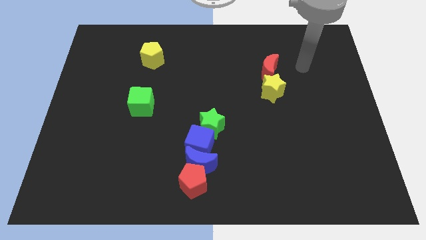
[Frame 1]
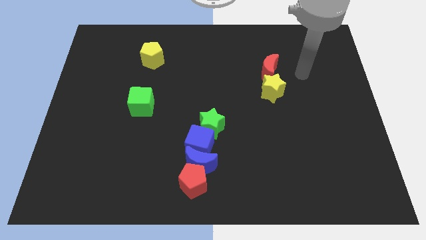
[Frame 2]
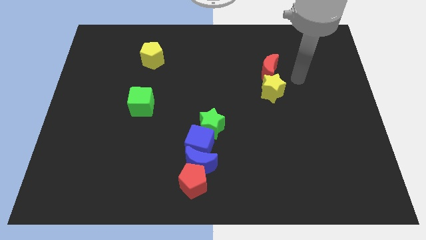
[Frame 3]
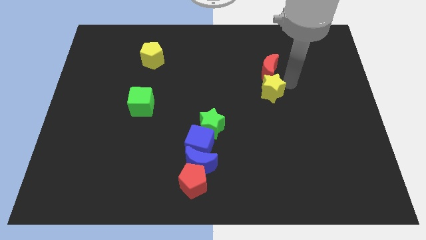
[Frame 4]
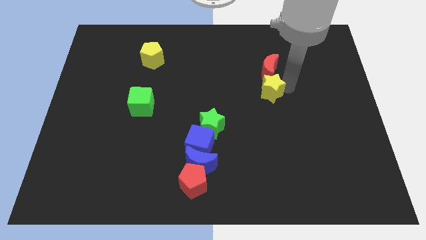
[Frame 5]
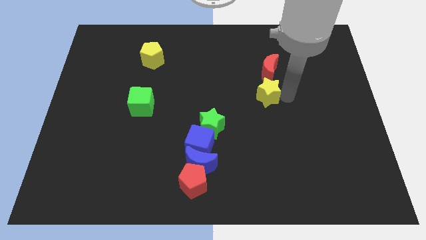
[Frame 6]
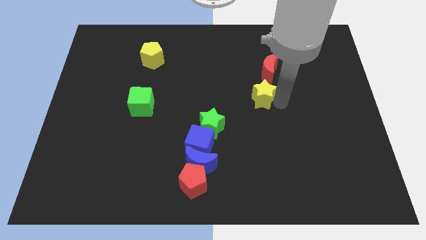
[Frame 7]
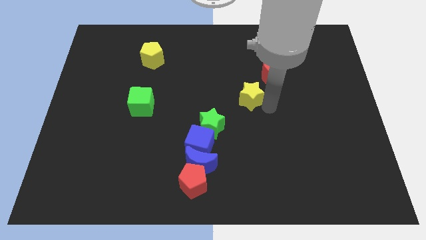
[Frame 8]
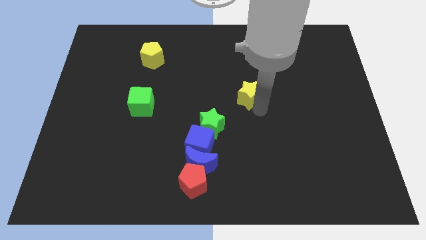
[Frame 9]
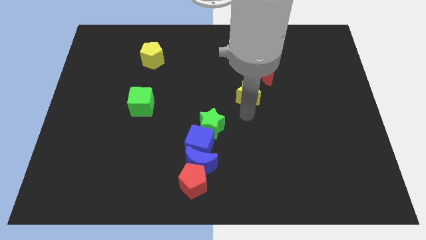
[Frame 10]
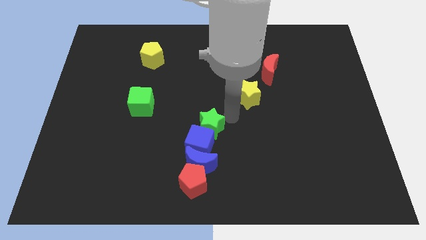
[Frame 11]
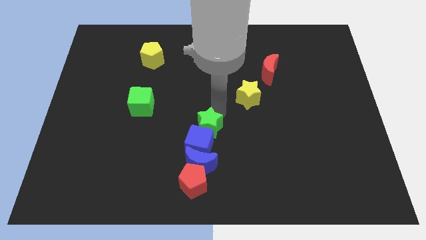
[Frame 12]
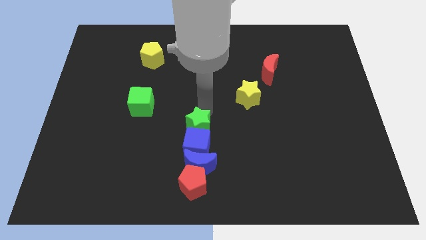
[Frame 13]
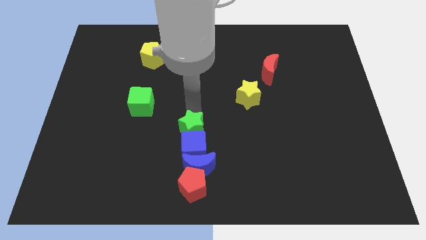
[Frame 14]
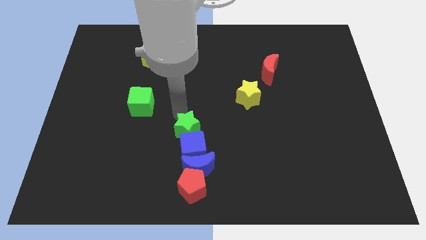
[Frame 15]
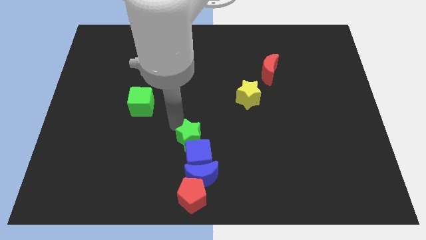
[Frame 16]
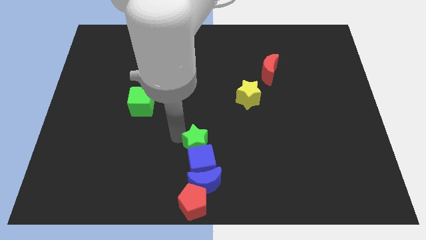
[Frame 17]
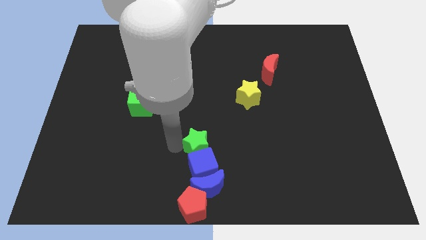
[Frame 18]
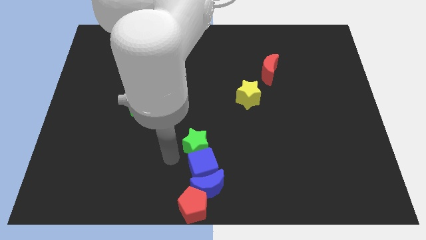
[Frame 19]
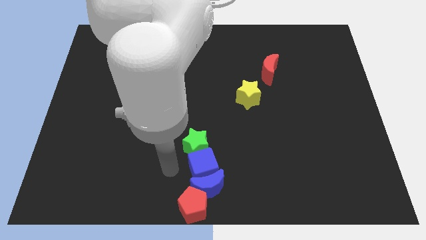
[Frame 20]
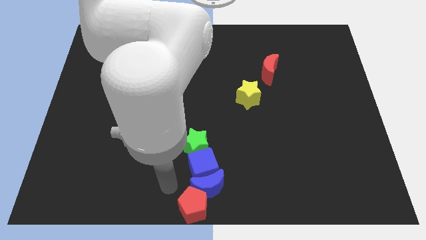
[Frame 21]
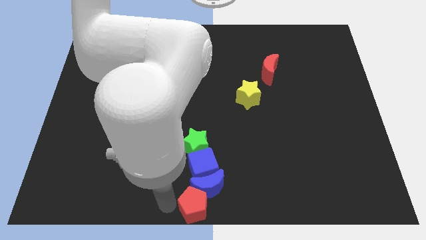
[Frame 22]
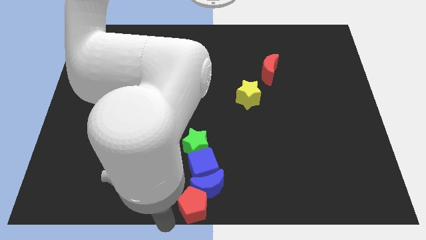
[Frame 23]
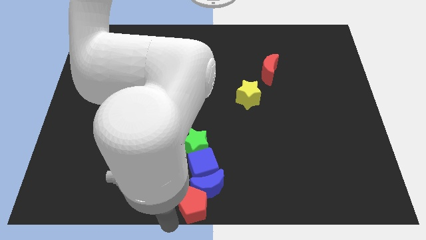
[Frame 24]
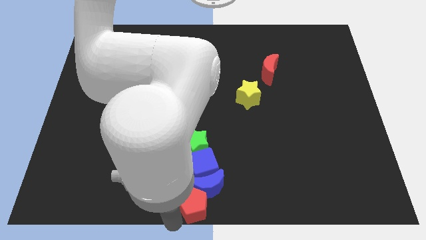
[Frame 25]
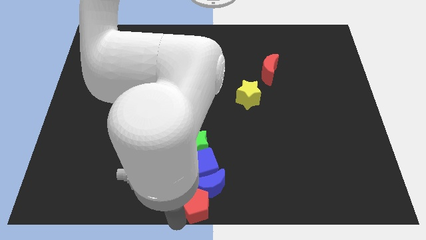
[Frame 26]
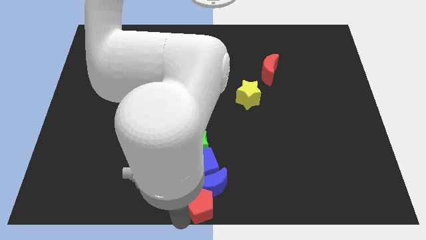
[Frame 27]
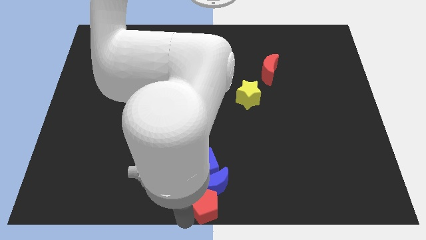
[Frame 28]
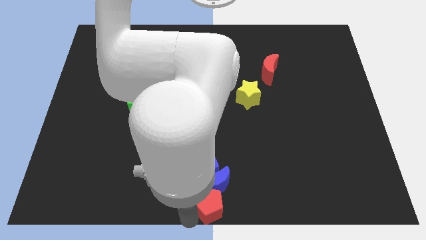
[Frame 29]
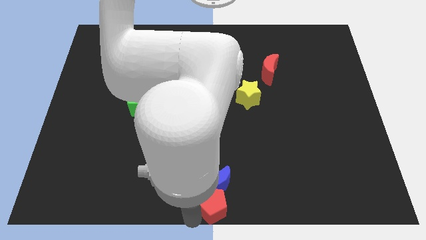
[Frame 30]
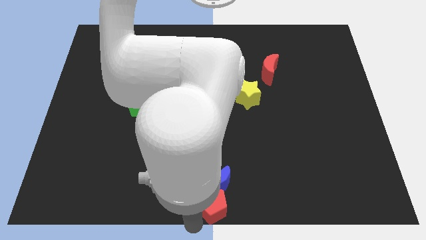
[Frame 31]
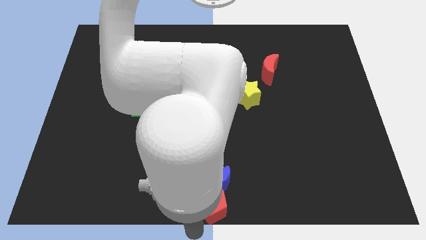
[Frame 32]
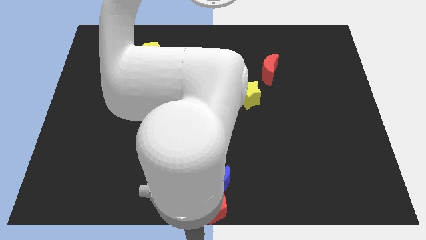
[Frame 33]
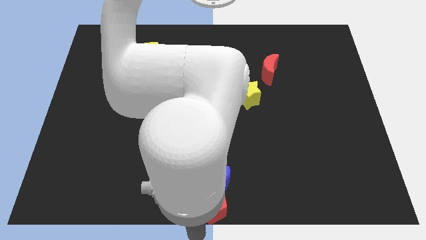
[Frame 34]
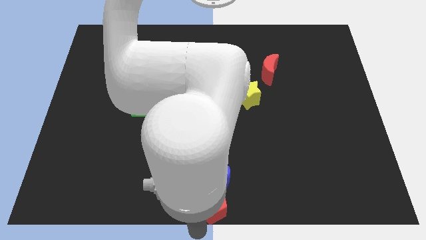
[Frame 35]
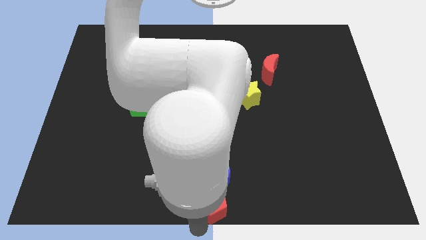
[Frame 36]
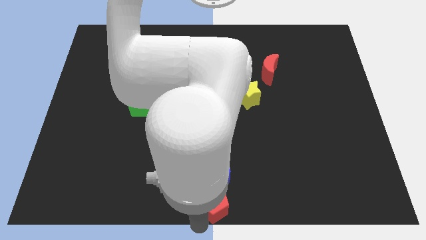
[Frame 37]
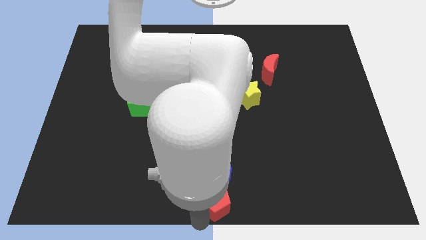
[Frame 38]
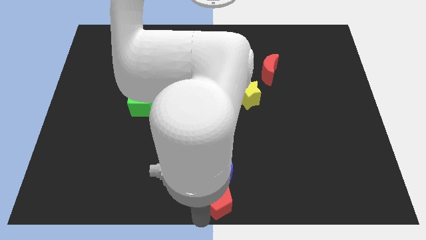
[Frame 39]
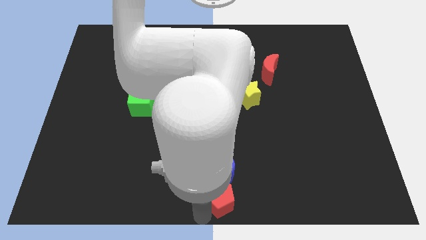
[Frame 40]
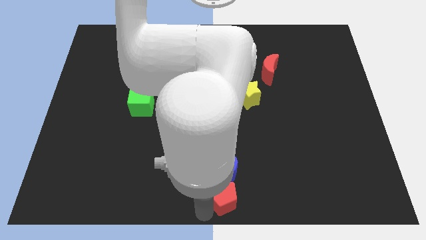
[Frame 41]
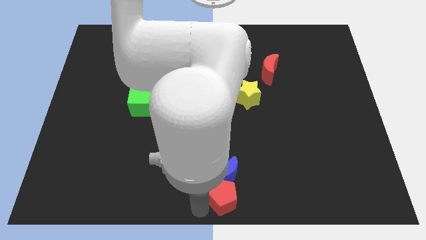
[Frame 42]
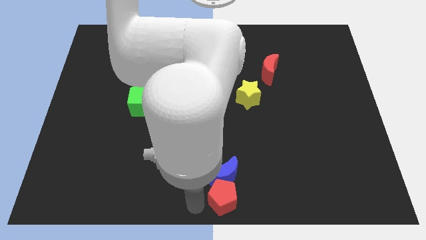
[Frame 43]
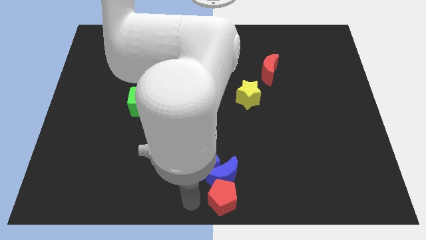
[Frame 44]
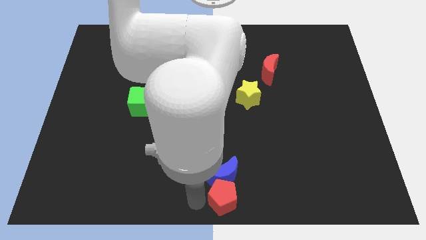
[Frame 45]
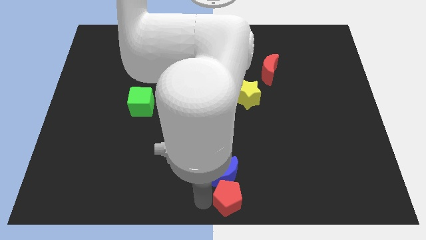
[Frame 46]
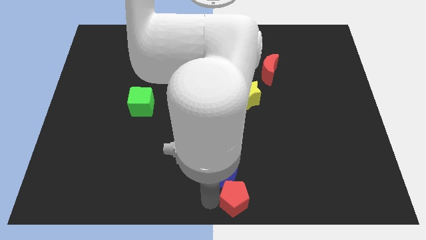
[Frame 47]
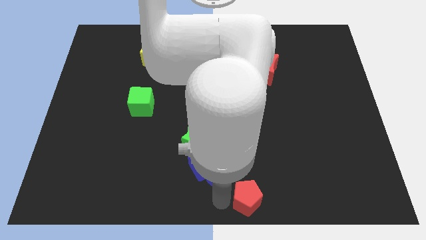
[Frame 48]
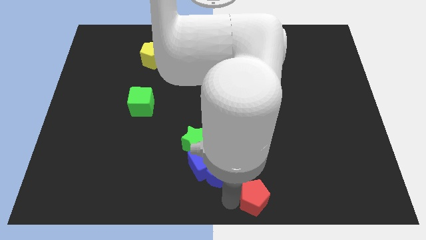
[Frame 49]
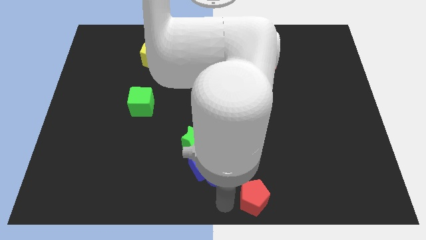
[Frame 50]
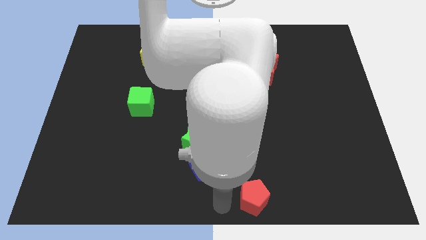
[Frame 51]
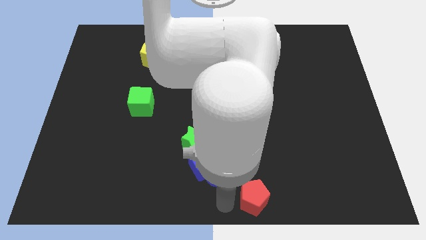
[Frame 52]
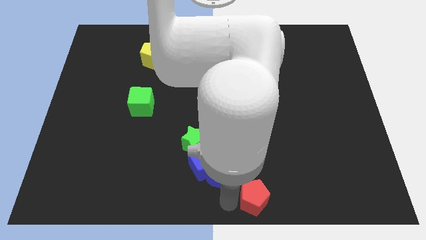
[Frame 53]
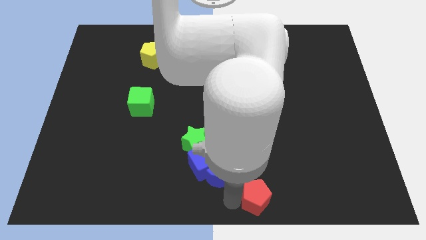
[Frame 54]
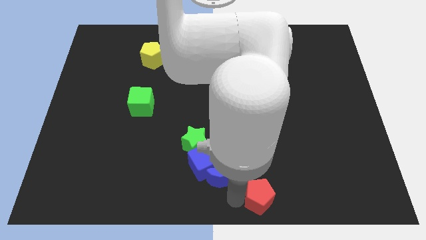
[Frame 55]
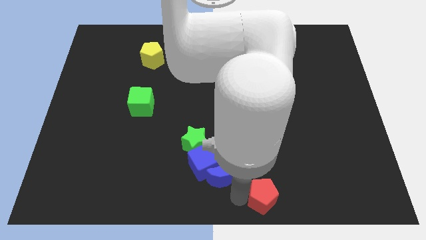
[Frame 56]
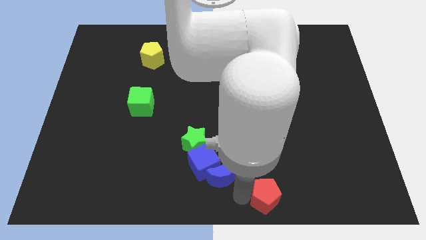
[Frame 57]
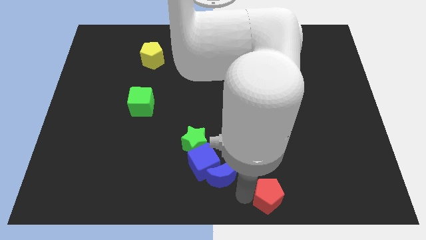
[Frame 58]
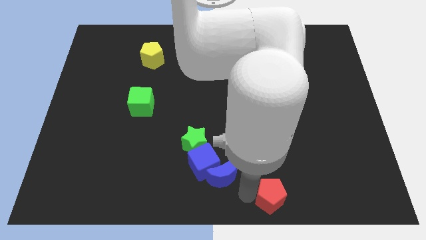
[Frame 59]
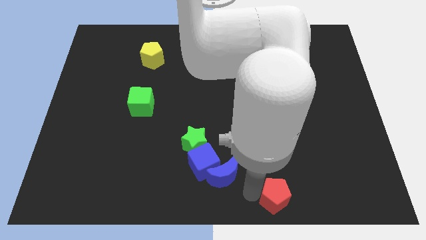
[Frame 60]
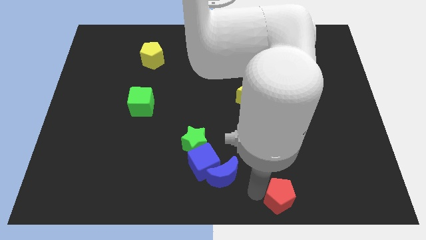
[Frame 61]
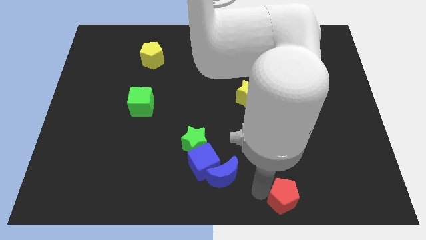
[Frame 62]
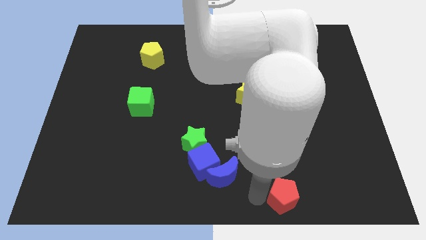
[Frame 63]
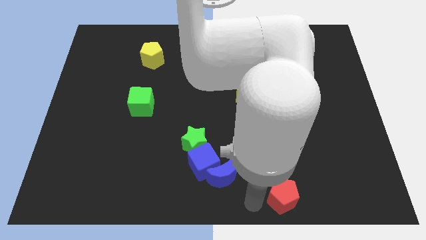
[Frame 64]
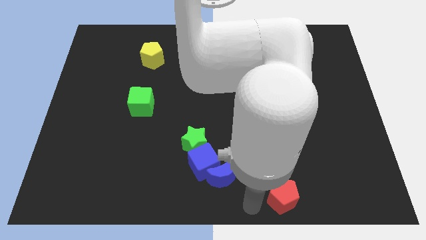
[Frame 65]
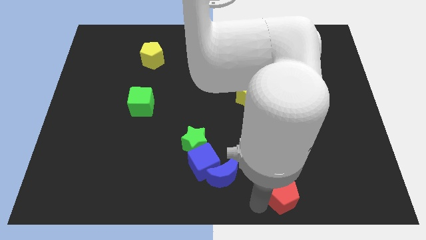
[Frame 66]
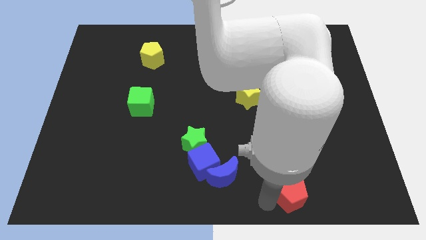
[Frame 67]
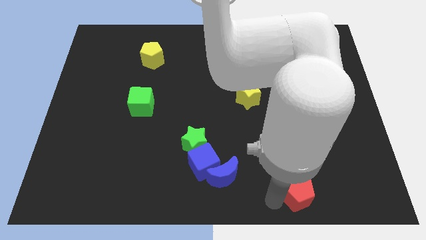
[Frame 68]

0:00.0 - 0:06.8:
push the red pentagon right

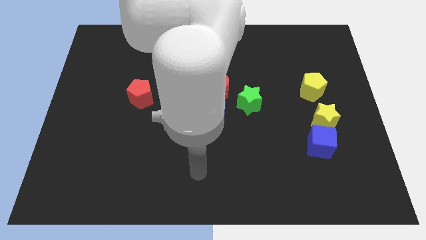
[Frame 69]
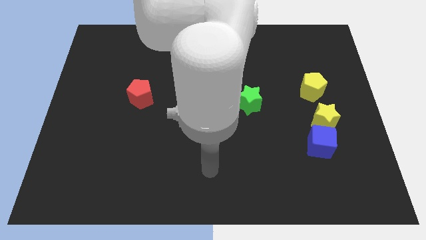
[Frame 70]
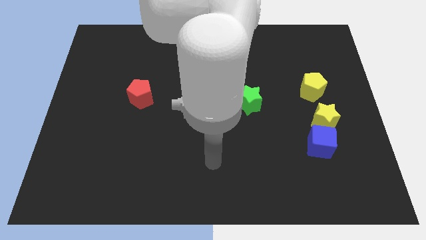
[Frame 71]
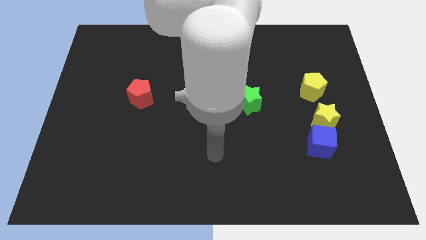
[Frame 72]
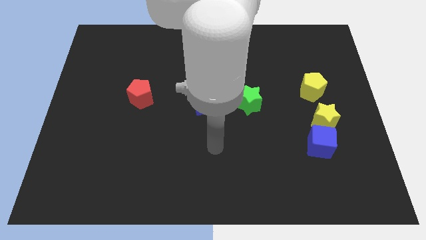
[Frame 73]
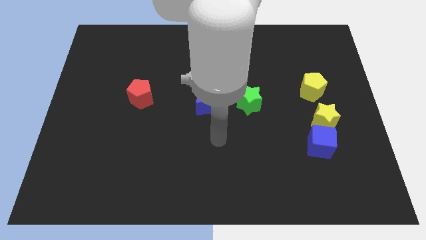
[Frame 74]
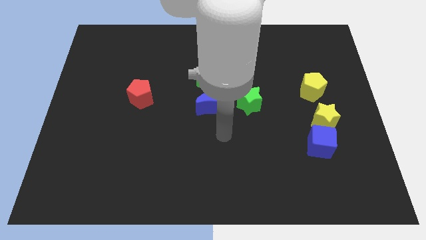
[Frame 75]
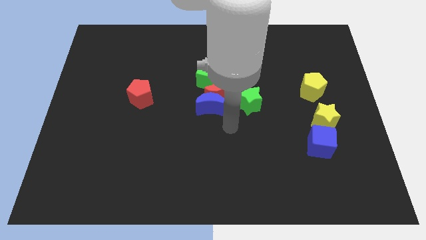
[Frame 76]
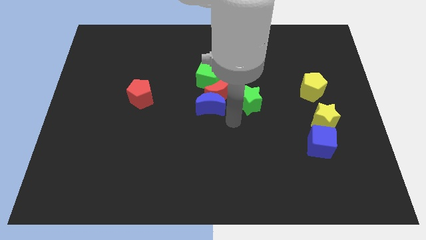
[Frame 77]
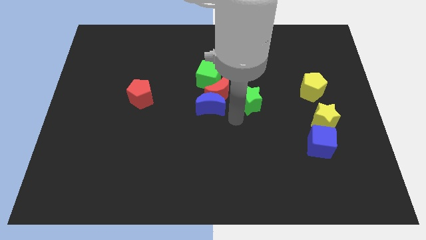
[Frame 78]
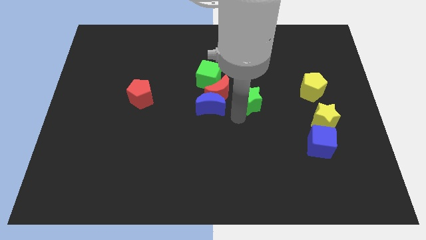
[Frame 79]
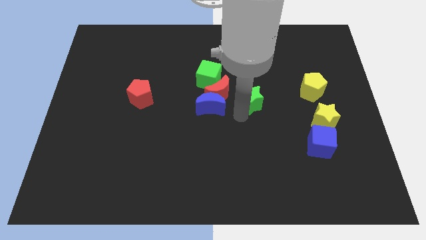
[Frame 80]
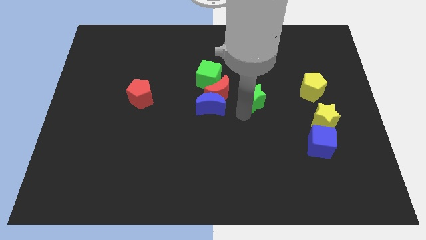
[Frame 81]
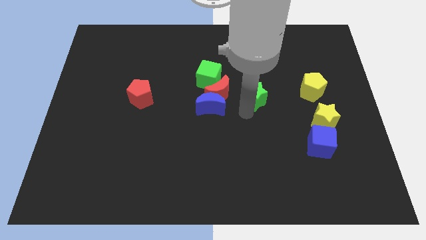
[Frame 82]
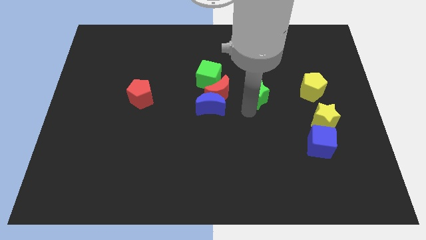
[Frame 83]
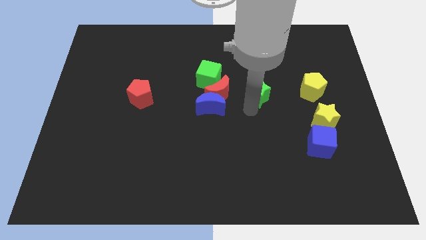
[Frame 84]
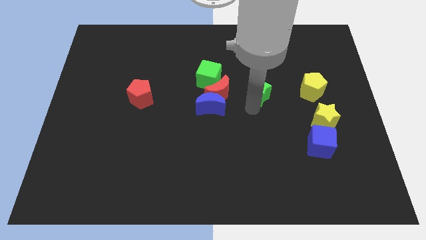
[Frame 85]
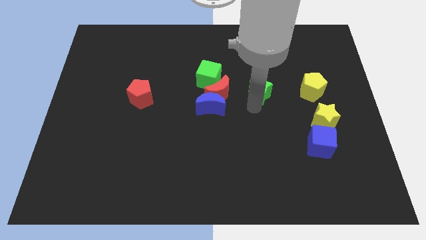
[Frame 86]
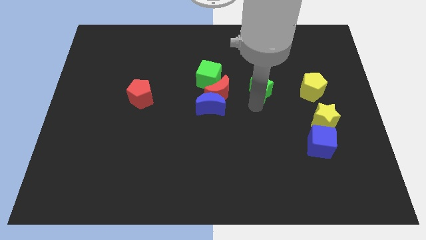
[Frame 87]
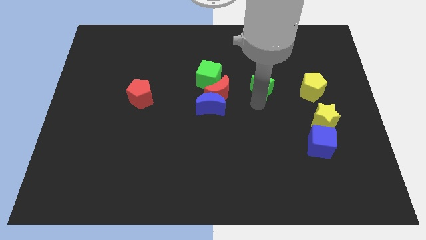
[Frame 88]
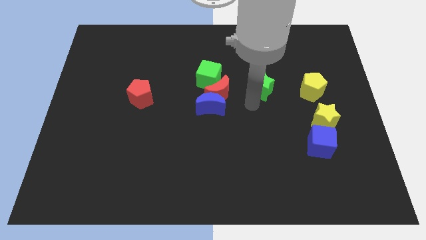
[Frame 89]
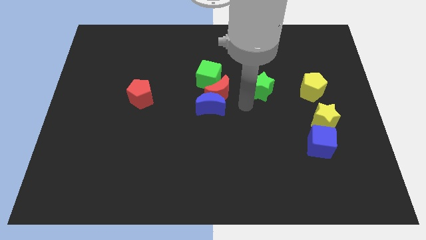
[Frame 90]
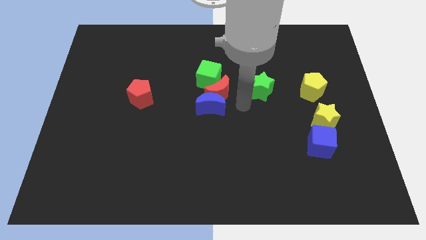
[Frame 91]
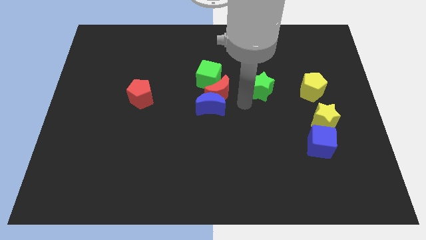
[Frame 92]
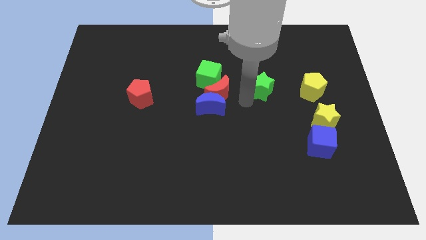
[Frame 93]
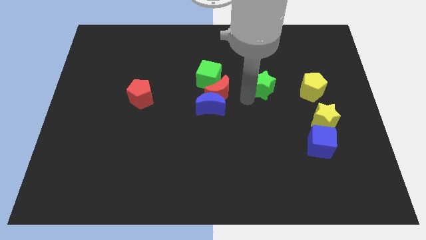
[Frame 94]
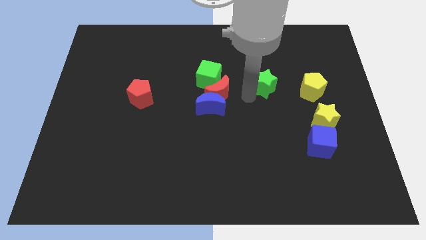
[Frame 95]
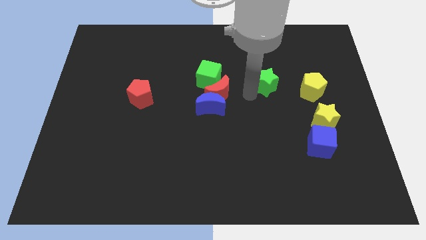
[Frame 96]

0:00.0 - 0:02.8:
push the green star somewhat upwards and right diagonally
